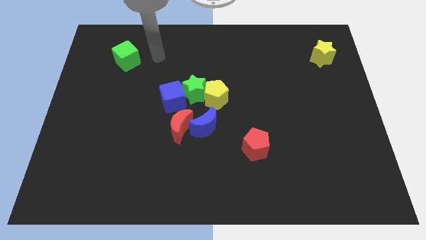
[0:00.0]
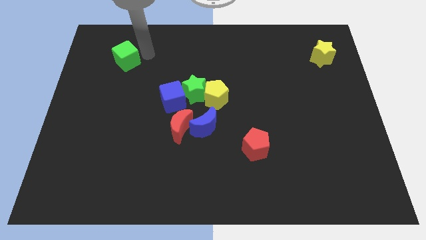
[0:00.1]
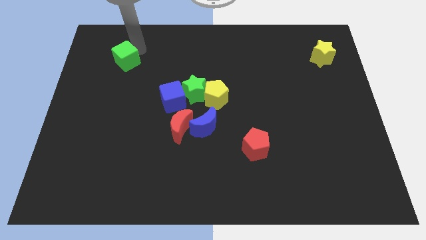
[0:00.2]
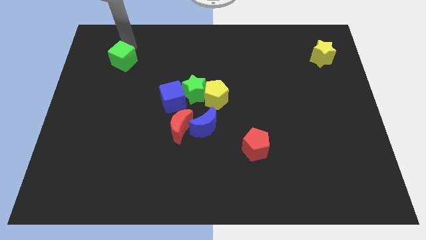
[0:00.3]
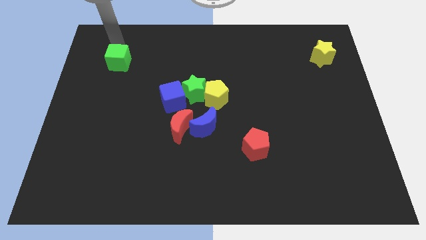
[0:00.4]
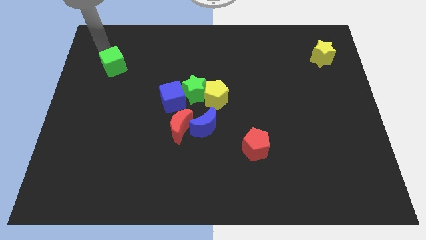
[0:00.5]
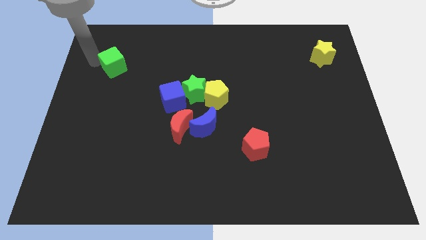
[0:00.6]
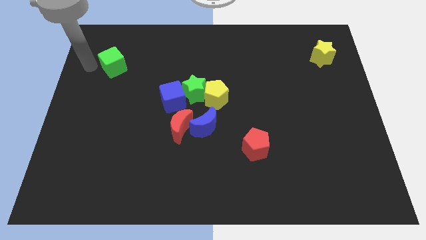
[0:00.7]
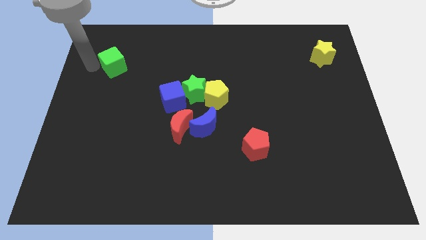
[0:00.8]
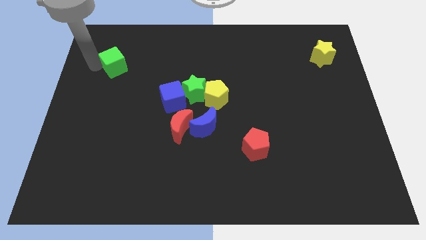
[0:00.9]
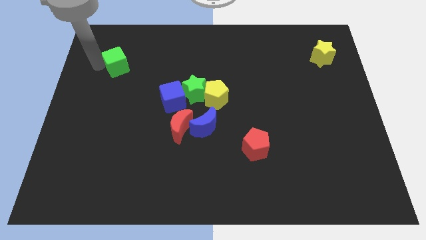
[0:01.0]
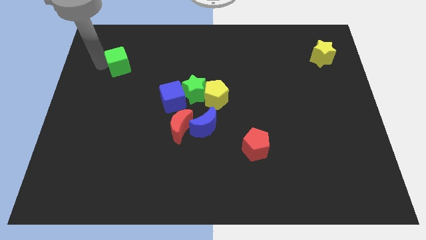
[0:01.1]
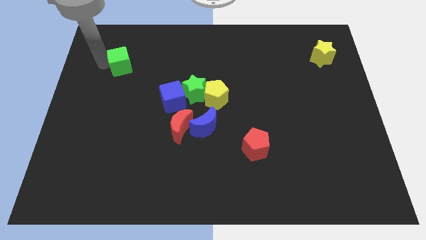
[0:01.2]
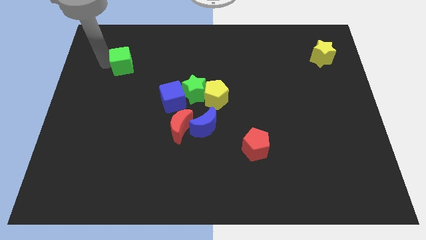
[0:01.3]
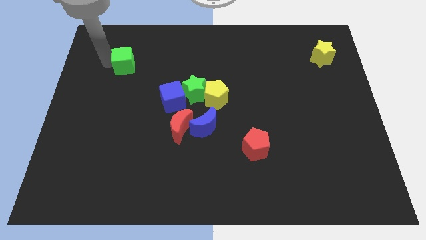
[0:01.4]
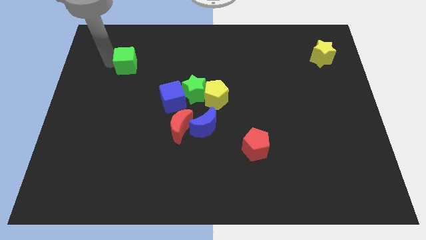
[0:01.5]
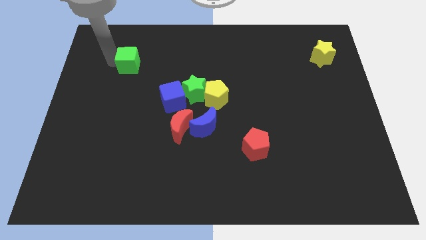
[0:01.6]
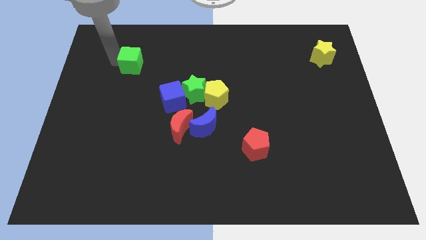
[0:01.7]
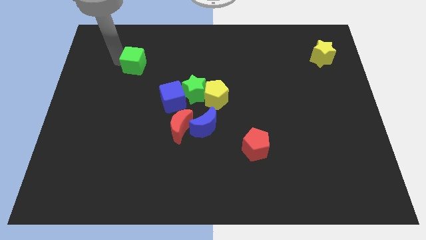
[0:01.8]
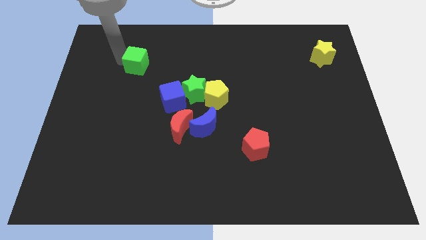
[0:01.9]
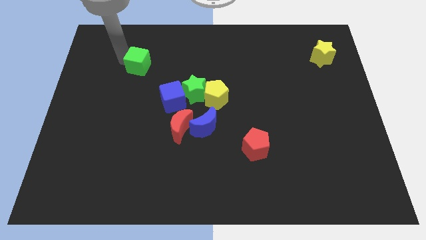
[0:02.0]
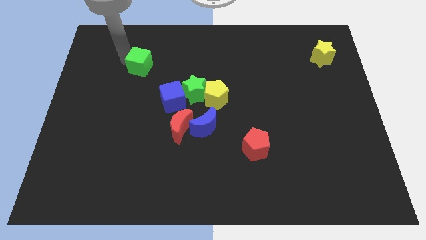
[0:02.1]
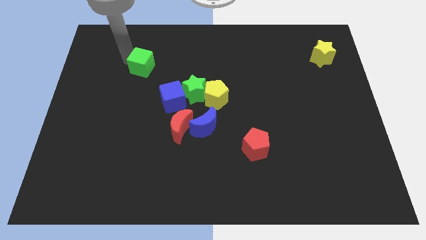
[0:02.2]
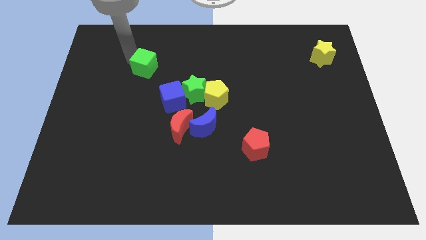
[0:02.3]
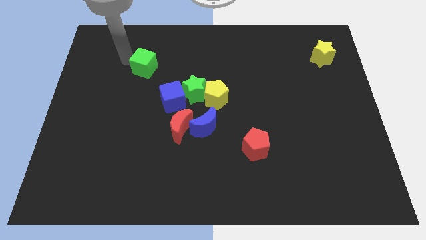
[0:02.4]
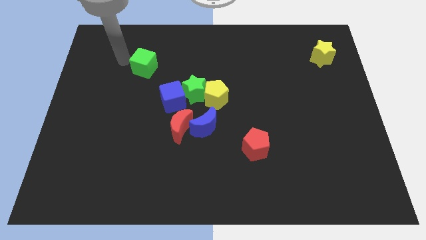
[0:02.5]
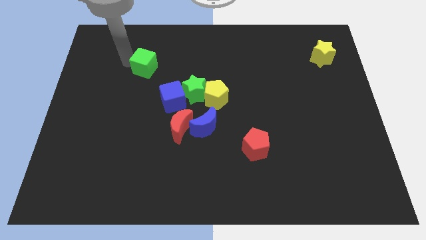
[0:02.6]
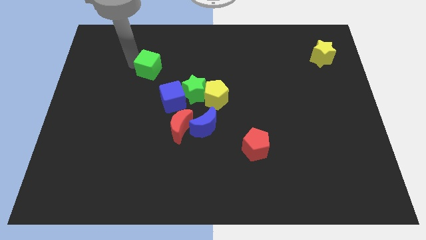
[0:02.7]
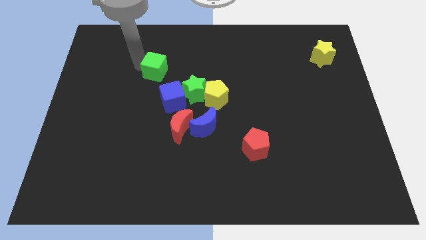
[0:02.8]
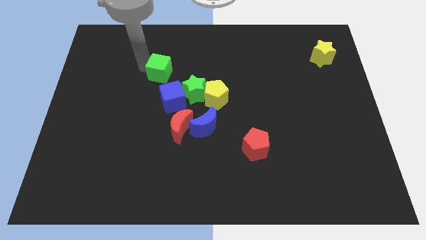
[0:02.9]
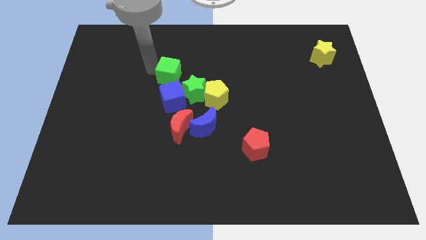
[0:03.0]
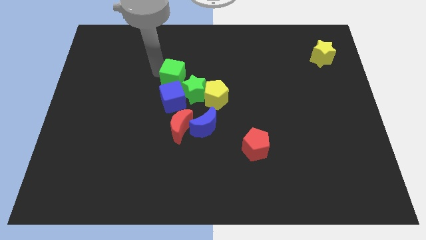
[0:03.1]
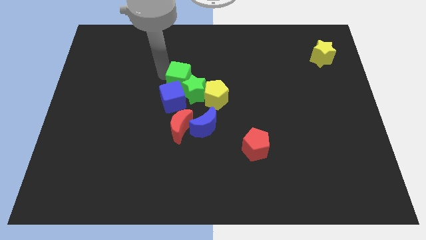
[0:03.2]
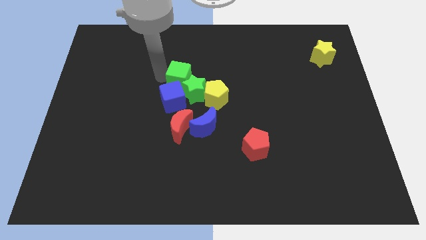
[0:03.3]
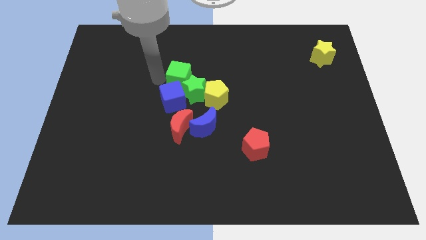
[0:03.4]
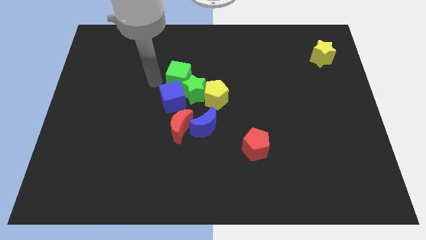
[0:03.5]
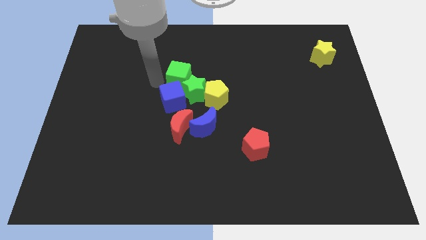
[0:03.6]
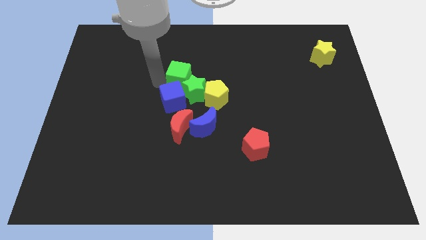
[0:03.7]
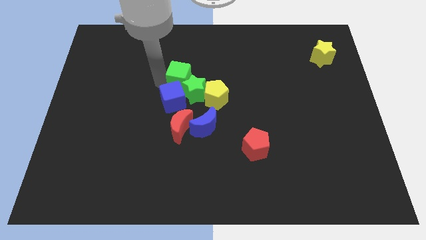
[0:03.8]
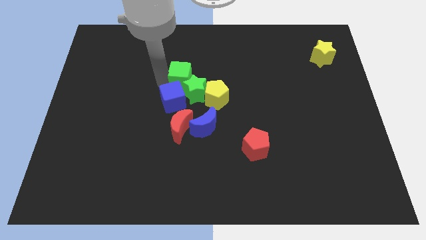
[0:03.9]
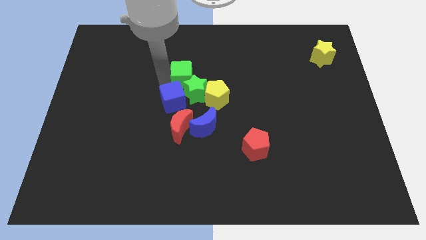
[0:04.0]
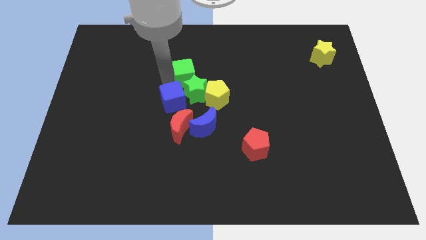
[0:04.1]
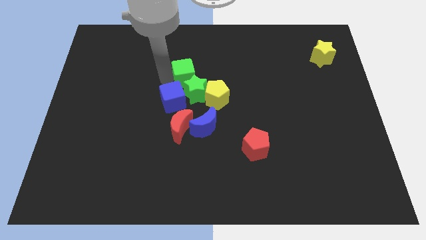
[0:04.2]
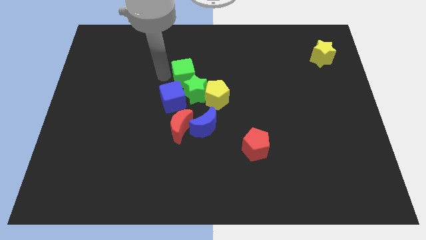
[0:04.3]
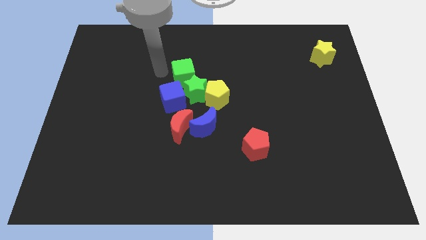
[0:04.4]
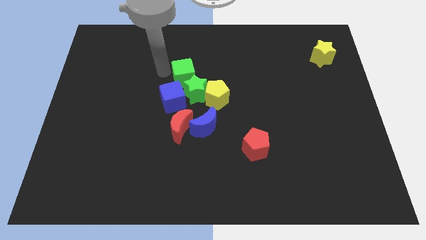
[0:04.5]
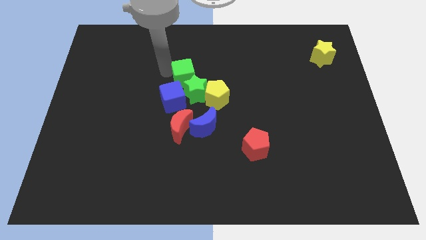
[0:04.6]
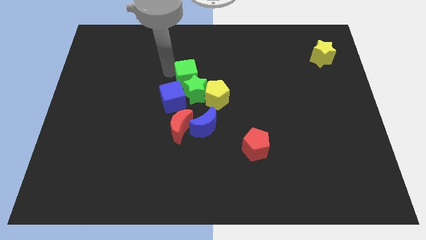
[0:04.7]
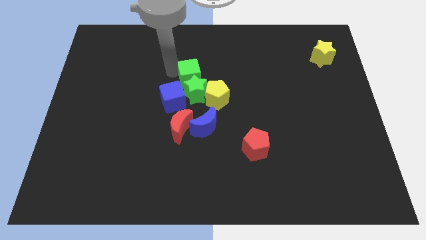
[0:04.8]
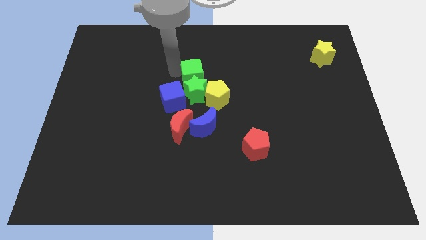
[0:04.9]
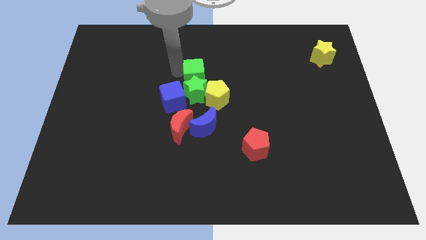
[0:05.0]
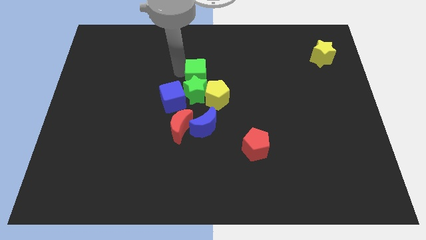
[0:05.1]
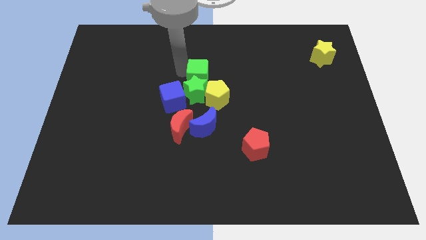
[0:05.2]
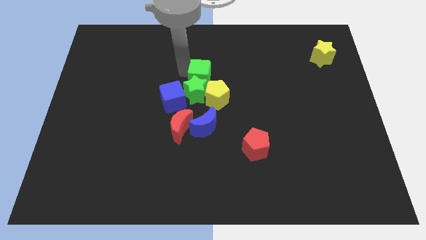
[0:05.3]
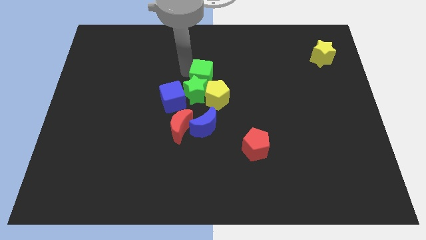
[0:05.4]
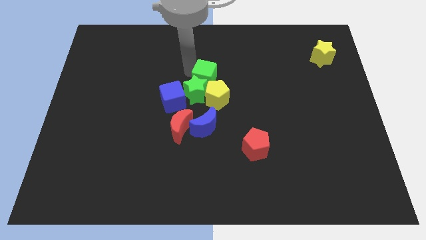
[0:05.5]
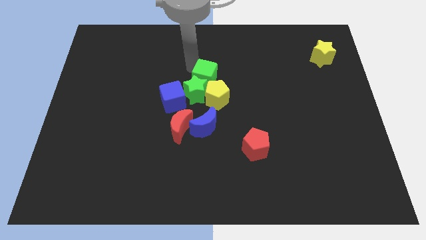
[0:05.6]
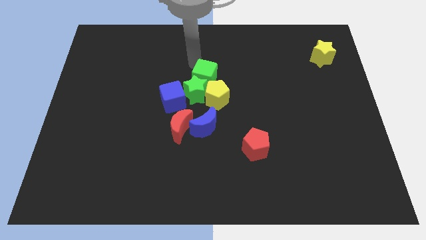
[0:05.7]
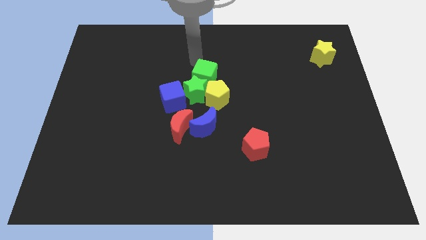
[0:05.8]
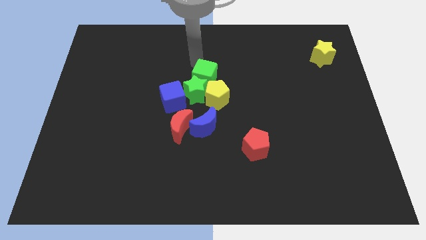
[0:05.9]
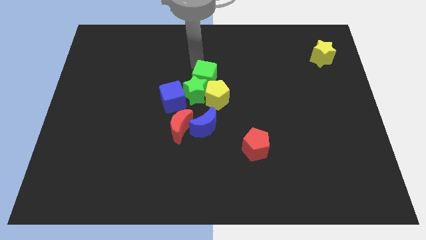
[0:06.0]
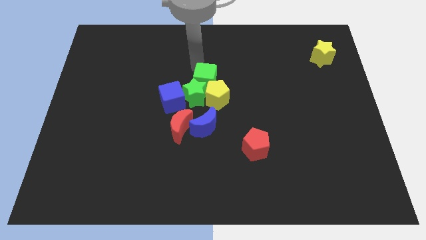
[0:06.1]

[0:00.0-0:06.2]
slide the green cube next to the yellow pentagon
